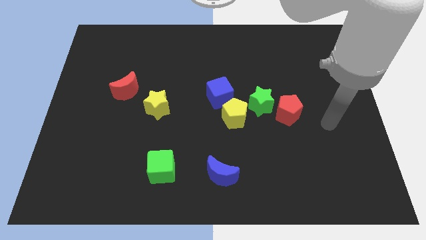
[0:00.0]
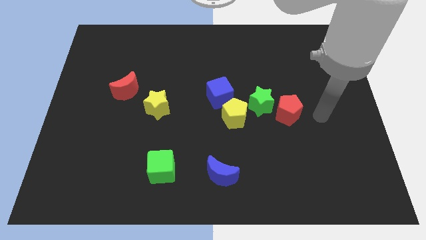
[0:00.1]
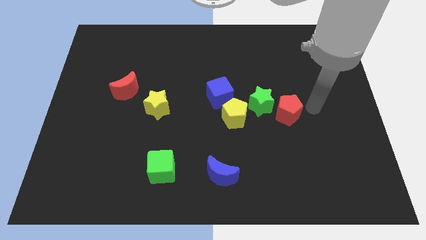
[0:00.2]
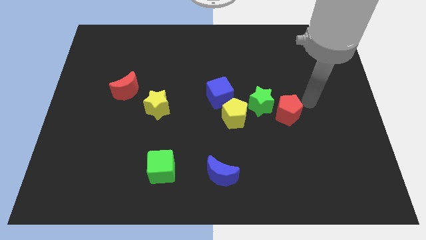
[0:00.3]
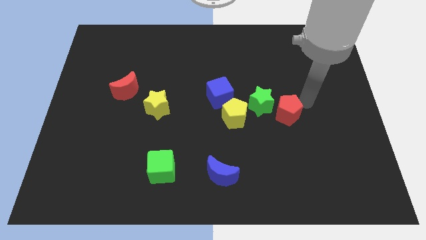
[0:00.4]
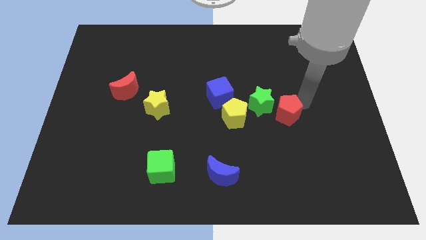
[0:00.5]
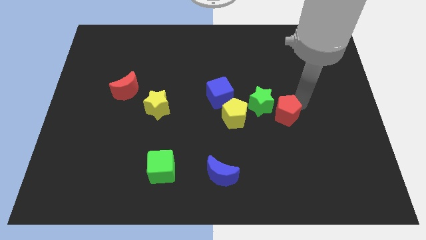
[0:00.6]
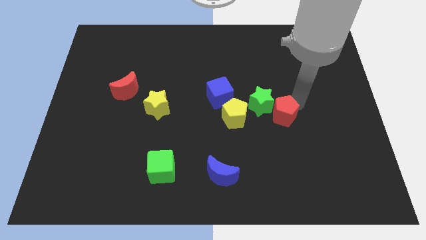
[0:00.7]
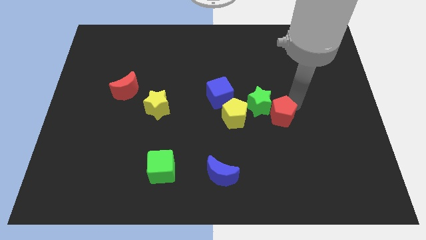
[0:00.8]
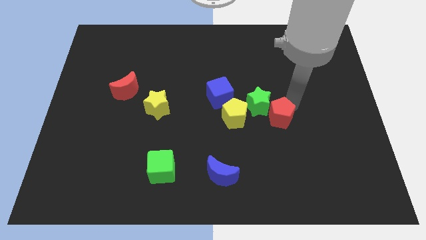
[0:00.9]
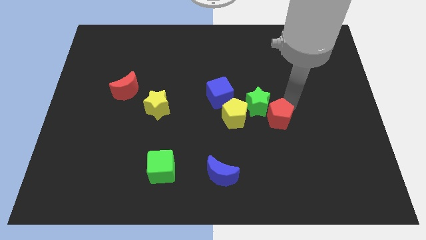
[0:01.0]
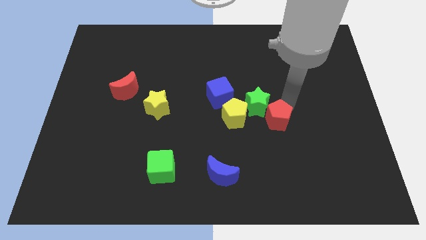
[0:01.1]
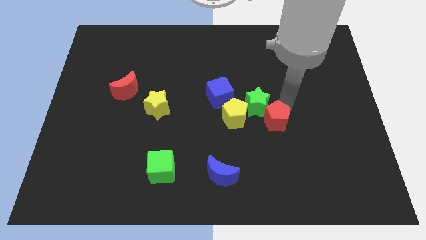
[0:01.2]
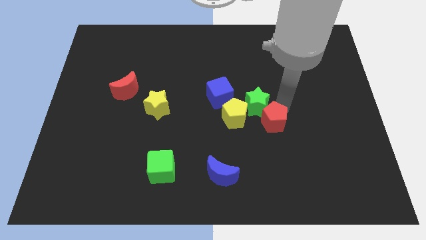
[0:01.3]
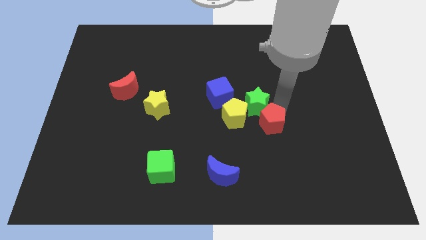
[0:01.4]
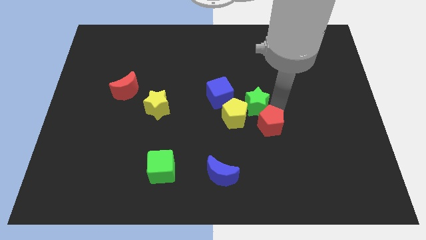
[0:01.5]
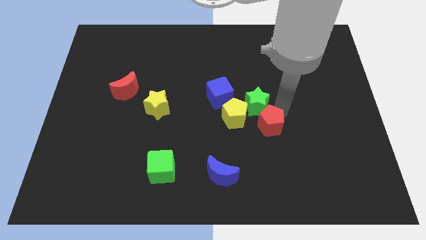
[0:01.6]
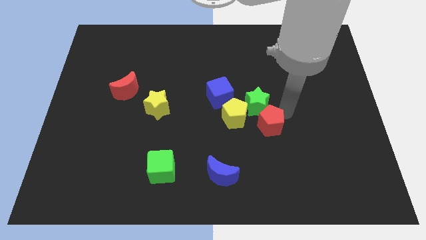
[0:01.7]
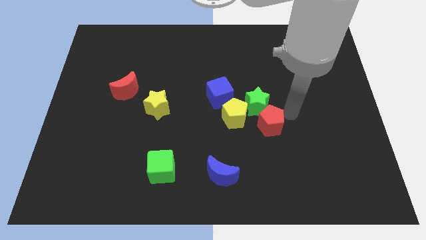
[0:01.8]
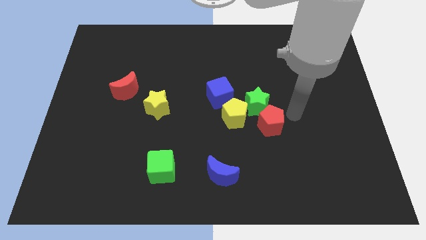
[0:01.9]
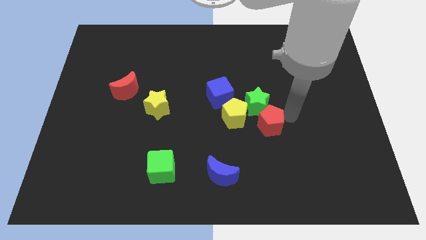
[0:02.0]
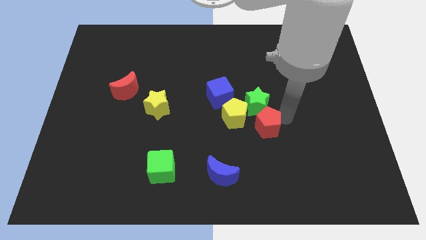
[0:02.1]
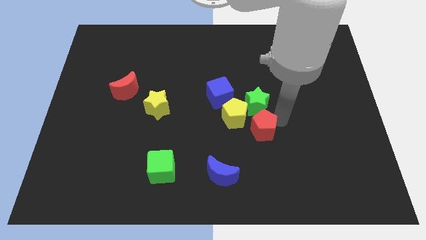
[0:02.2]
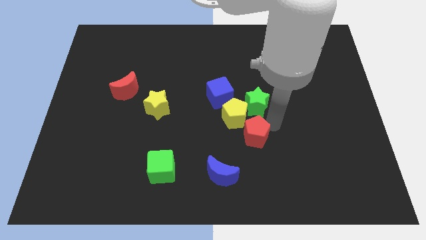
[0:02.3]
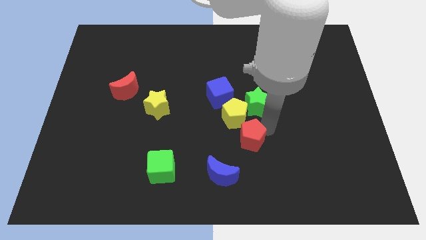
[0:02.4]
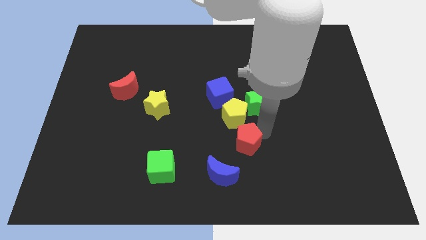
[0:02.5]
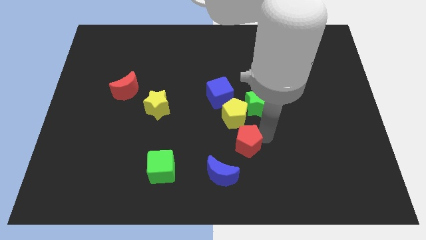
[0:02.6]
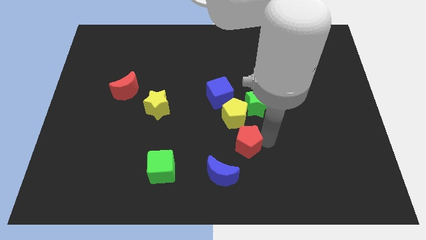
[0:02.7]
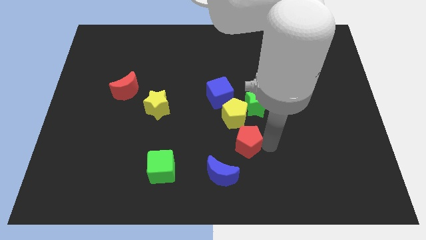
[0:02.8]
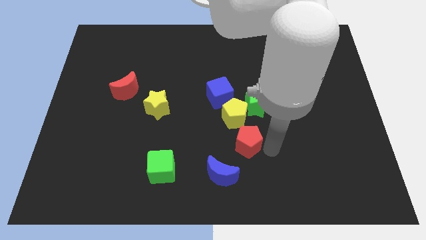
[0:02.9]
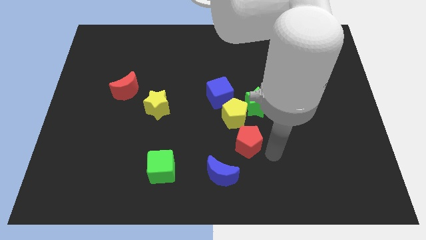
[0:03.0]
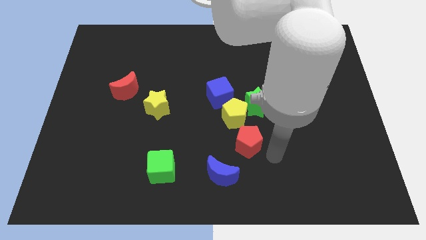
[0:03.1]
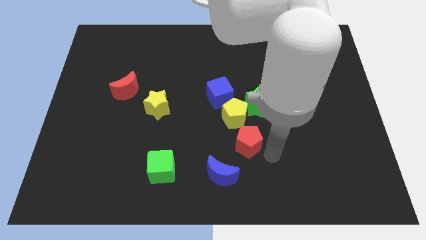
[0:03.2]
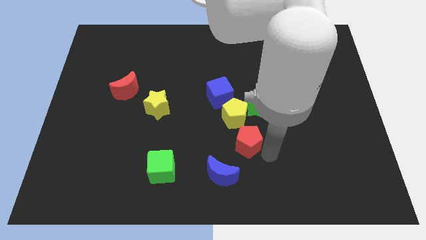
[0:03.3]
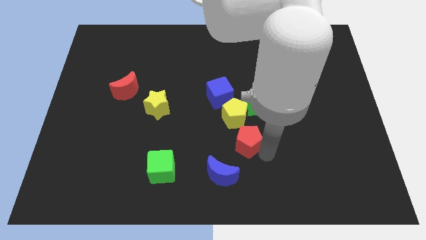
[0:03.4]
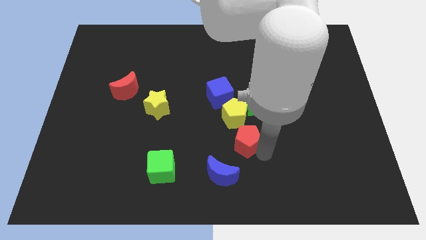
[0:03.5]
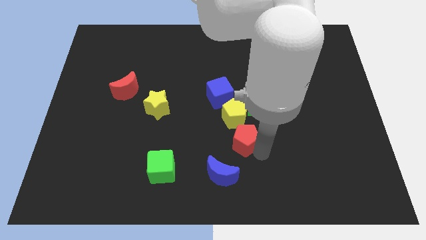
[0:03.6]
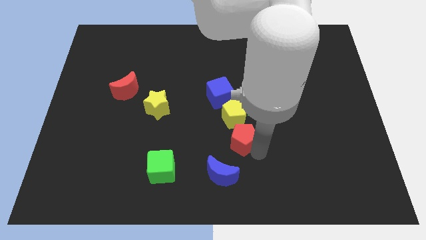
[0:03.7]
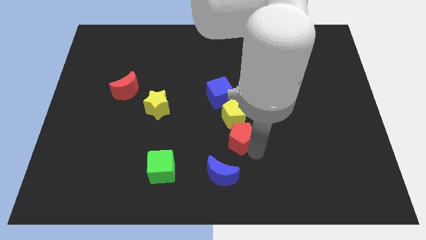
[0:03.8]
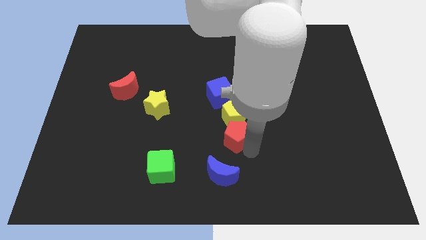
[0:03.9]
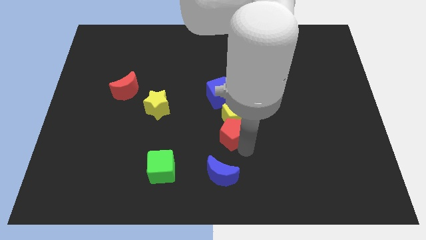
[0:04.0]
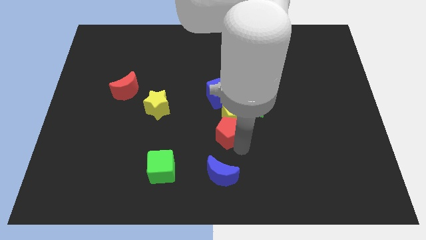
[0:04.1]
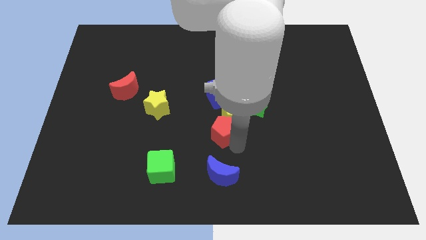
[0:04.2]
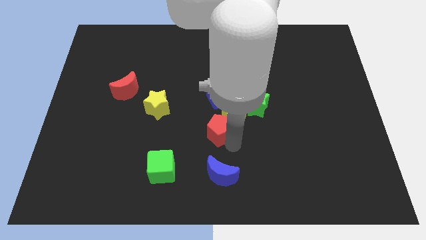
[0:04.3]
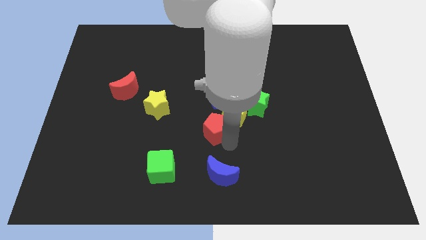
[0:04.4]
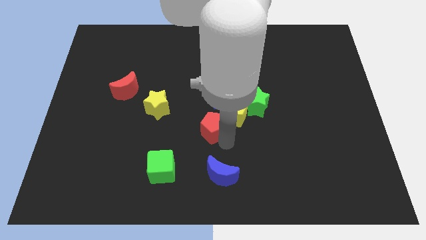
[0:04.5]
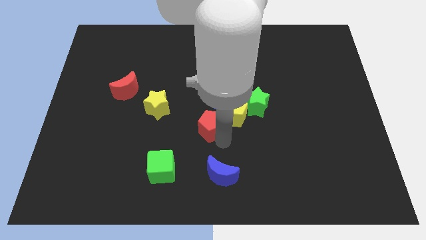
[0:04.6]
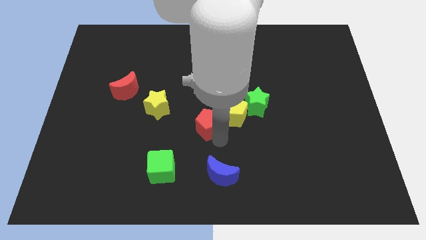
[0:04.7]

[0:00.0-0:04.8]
slide the red pentagon to the bottom left side of the blue cube

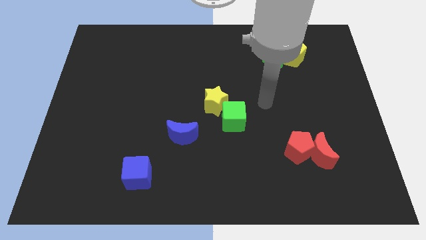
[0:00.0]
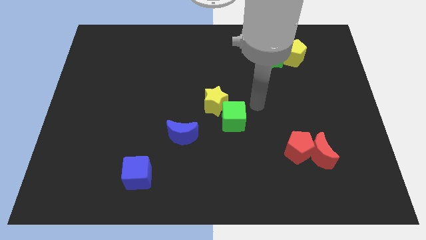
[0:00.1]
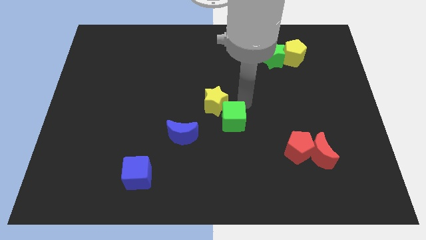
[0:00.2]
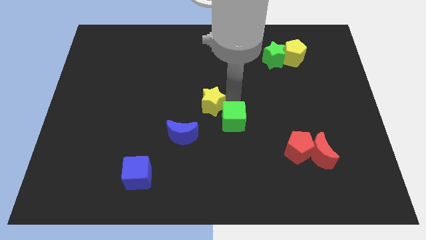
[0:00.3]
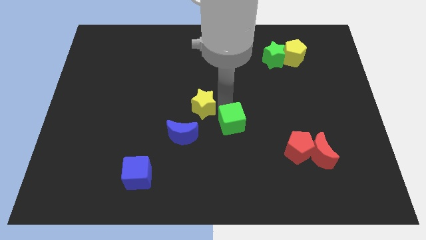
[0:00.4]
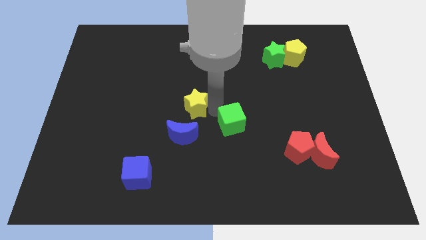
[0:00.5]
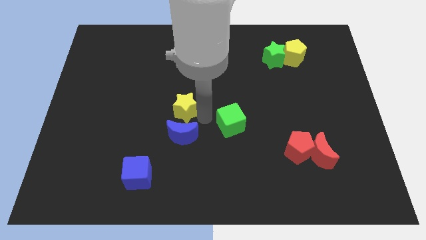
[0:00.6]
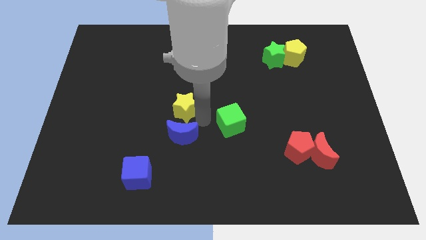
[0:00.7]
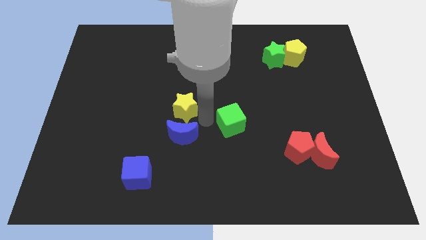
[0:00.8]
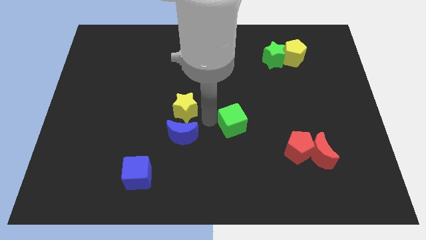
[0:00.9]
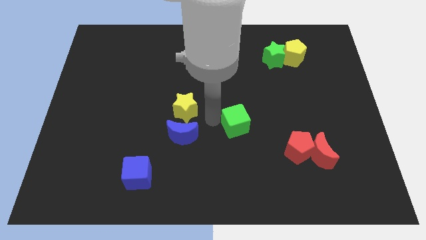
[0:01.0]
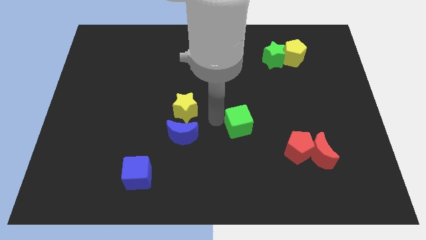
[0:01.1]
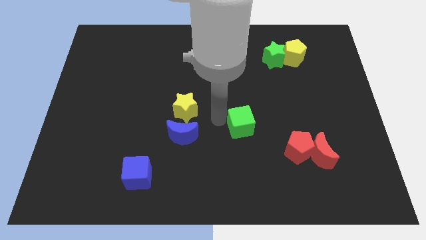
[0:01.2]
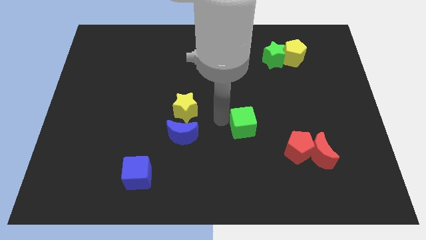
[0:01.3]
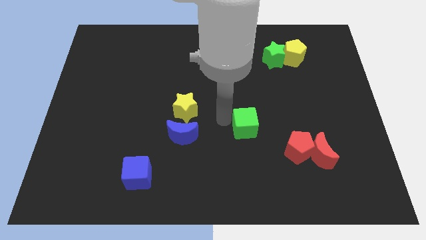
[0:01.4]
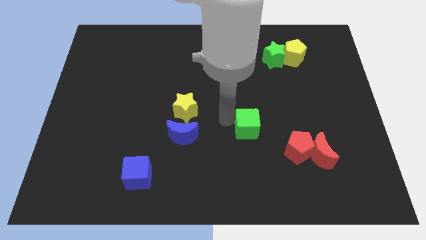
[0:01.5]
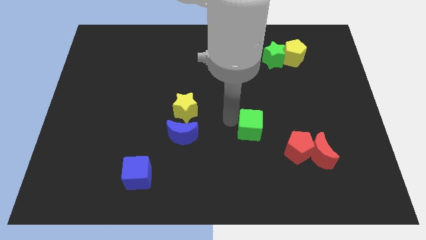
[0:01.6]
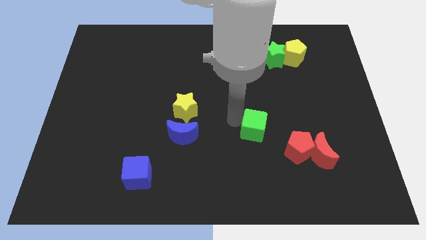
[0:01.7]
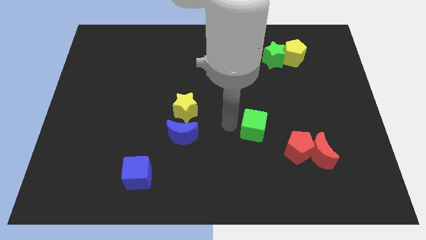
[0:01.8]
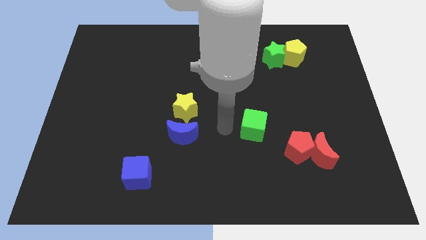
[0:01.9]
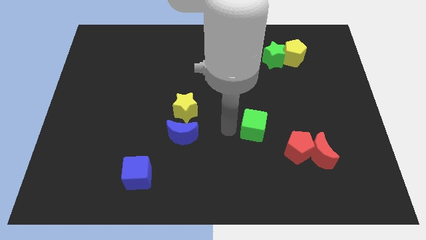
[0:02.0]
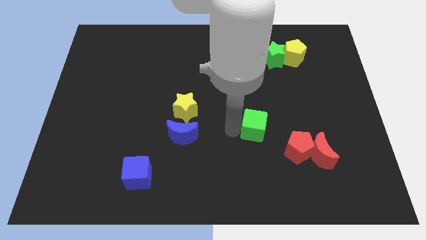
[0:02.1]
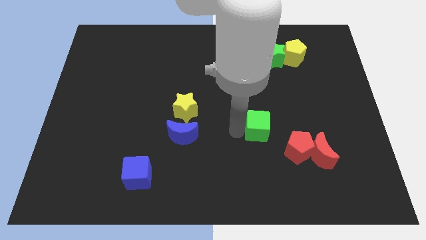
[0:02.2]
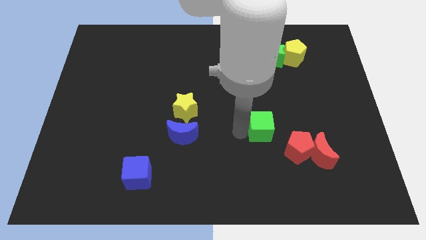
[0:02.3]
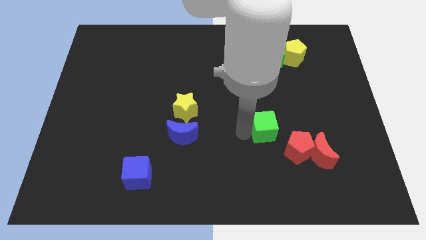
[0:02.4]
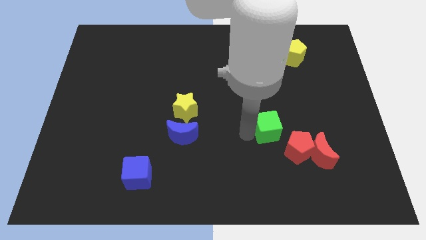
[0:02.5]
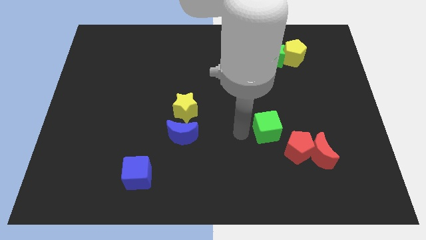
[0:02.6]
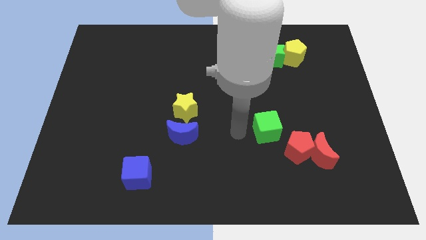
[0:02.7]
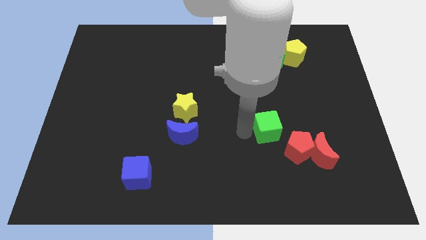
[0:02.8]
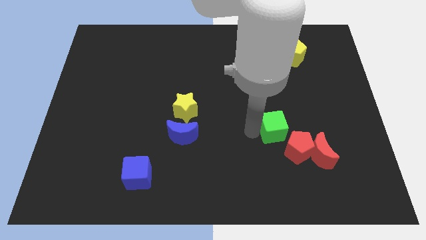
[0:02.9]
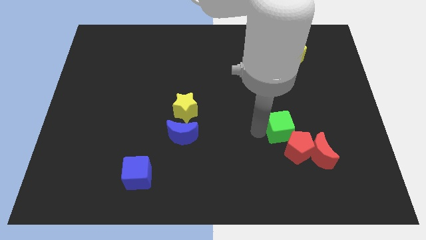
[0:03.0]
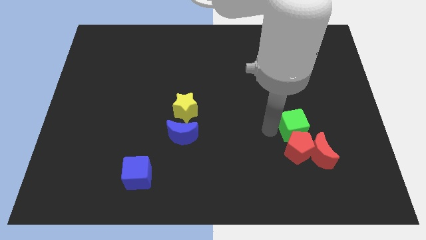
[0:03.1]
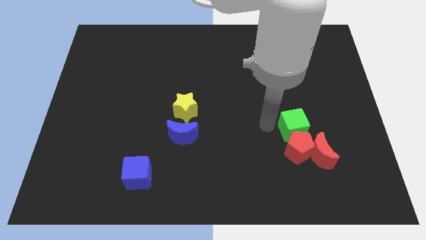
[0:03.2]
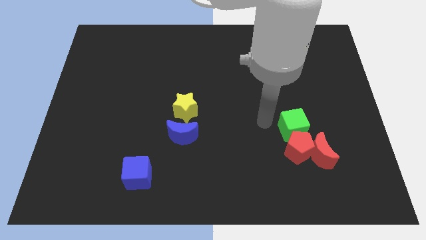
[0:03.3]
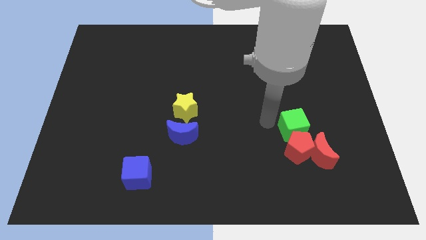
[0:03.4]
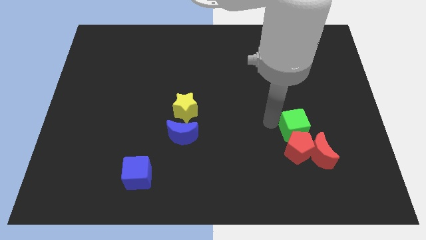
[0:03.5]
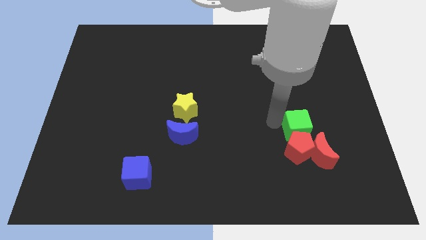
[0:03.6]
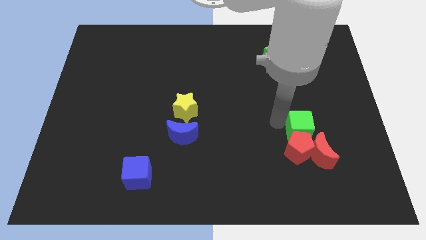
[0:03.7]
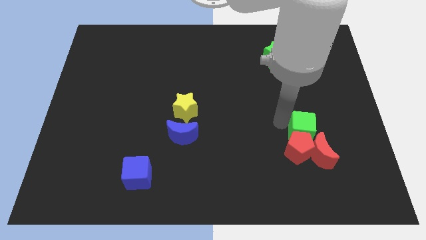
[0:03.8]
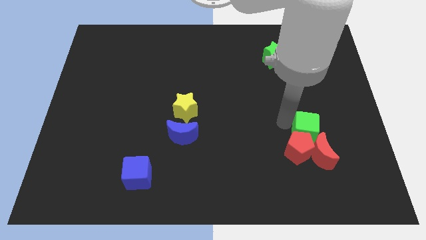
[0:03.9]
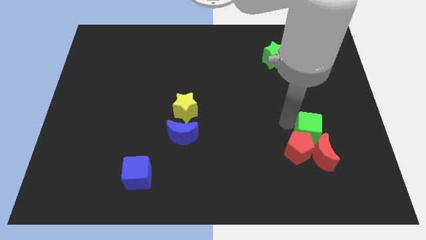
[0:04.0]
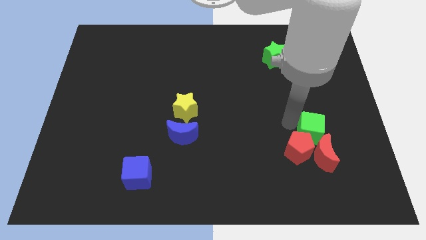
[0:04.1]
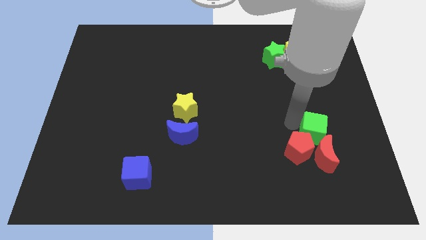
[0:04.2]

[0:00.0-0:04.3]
put the green cube to the right side of the red pentagon
